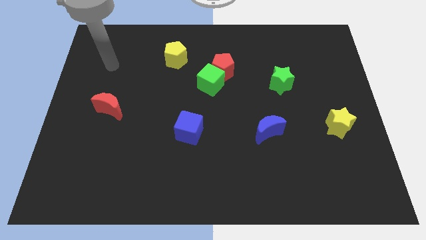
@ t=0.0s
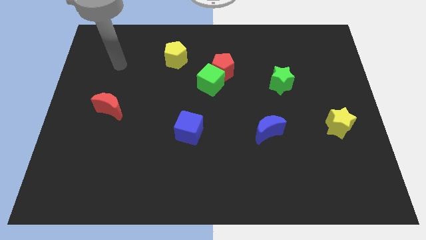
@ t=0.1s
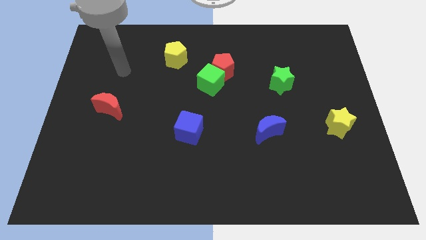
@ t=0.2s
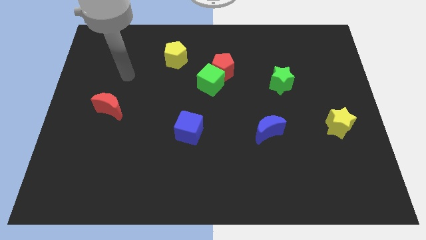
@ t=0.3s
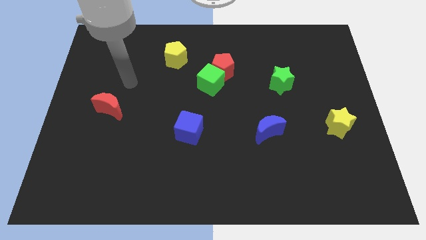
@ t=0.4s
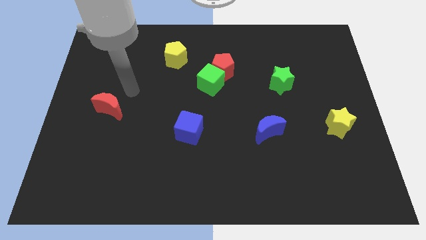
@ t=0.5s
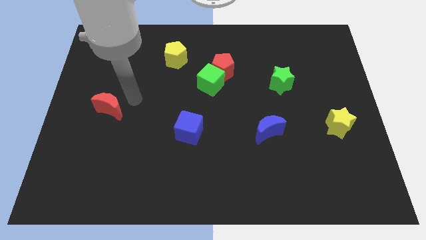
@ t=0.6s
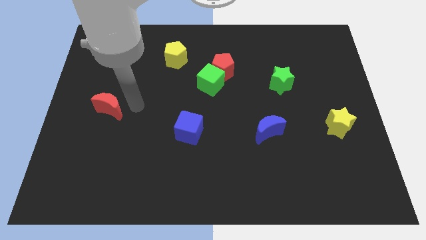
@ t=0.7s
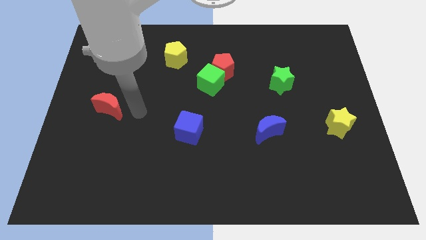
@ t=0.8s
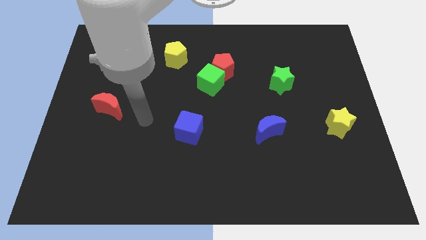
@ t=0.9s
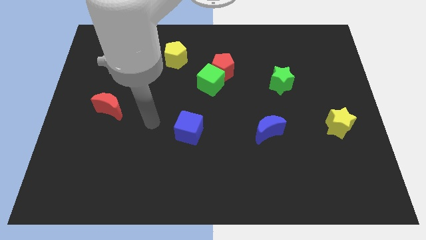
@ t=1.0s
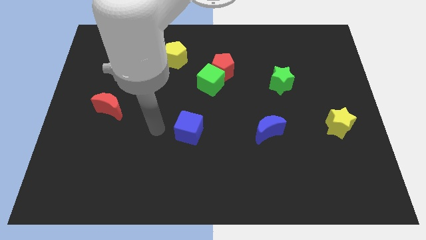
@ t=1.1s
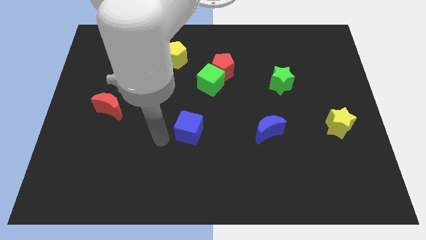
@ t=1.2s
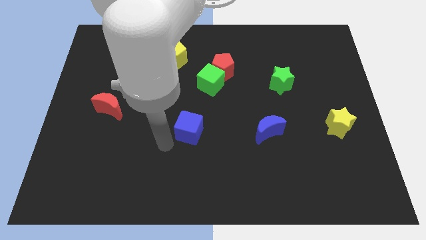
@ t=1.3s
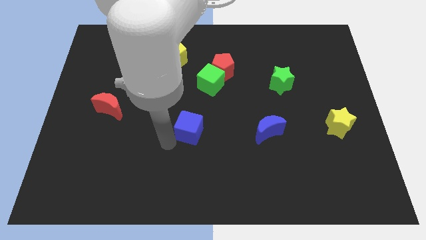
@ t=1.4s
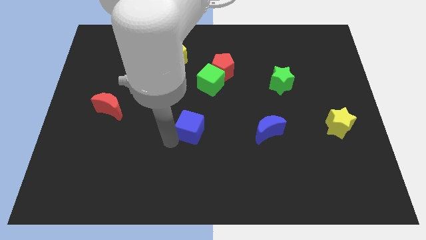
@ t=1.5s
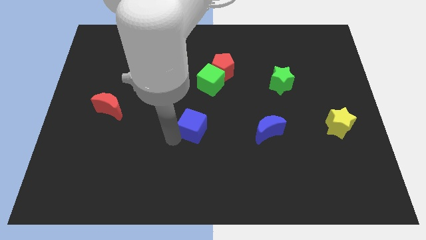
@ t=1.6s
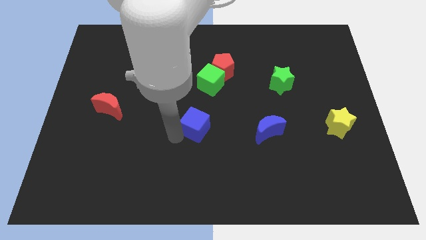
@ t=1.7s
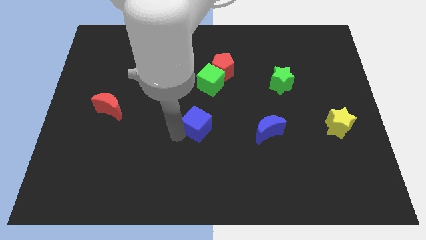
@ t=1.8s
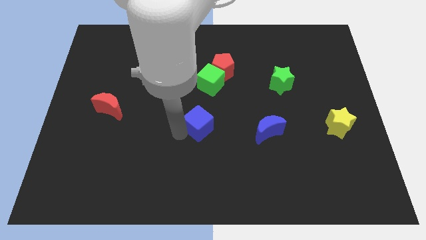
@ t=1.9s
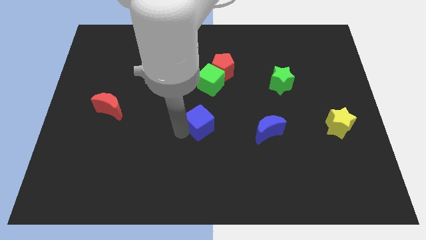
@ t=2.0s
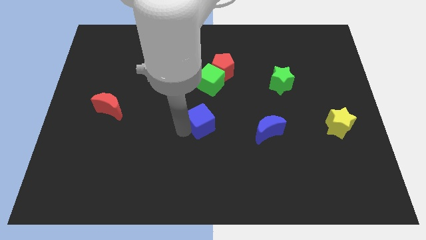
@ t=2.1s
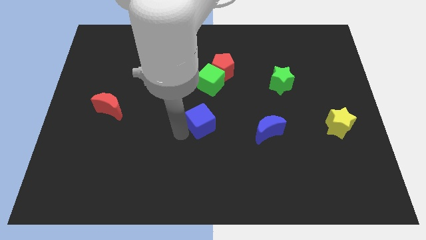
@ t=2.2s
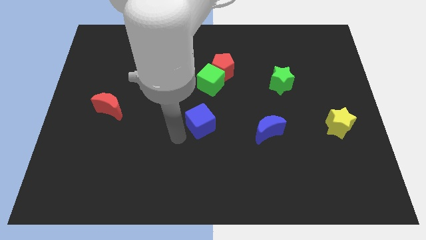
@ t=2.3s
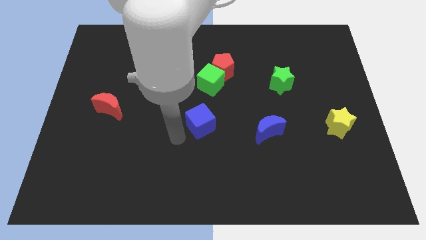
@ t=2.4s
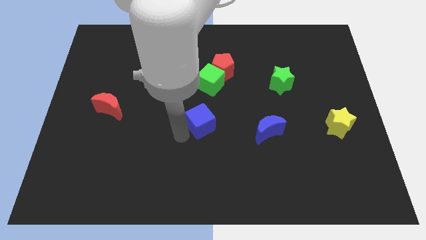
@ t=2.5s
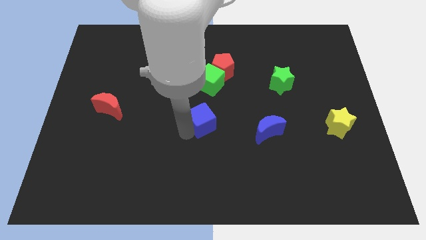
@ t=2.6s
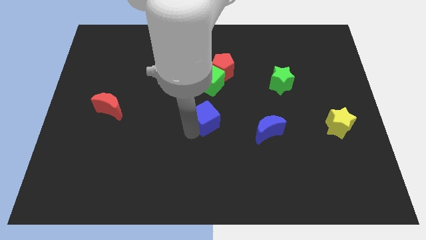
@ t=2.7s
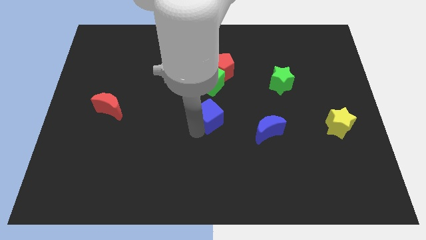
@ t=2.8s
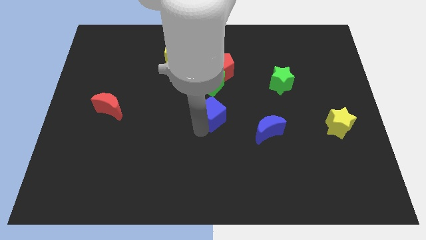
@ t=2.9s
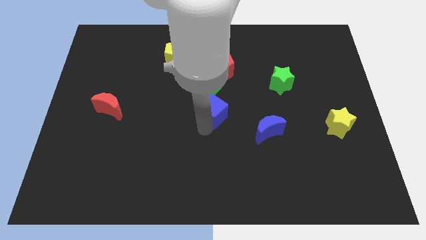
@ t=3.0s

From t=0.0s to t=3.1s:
push the blue cube a little up and to the right diagonally

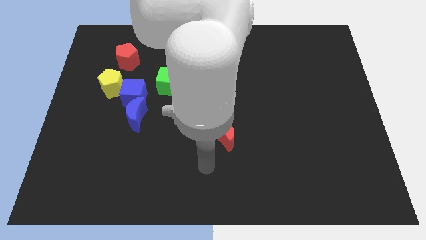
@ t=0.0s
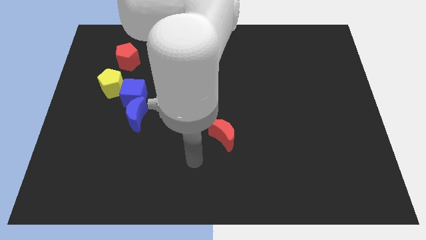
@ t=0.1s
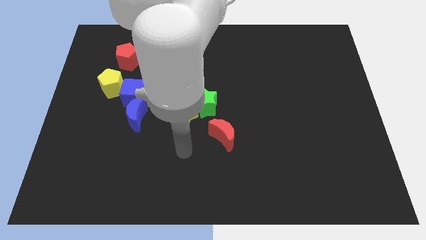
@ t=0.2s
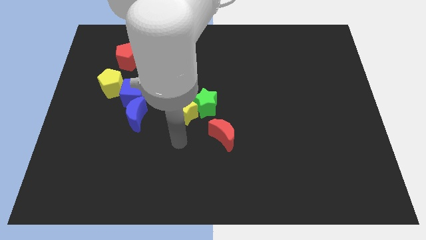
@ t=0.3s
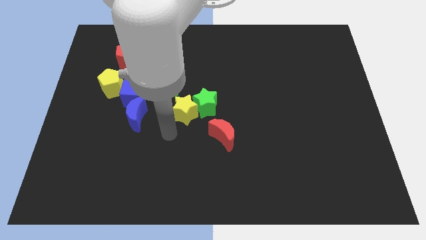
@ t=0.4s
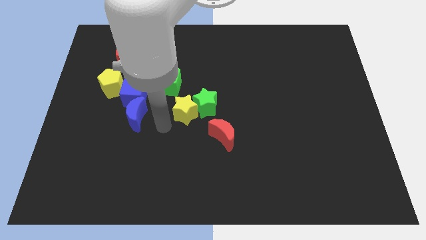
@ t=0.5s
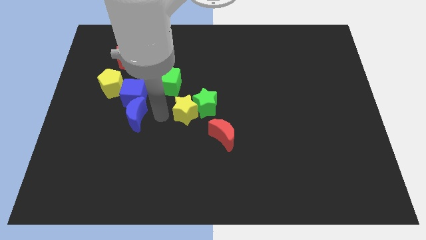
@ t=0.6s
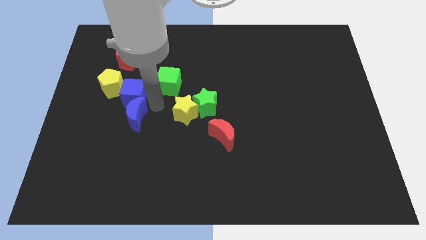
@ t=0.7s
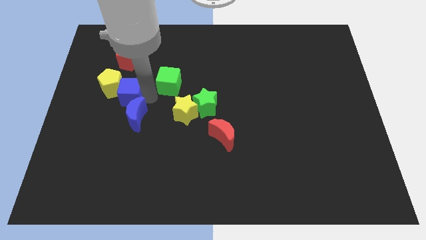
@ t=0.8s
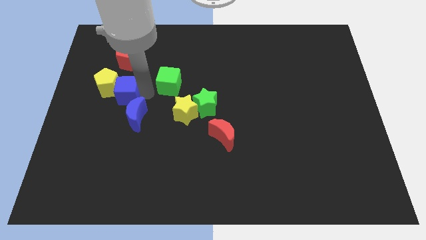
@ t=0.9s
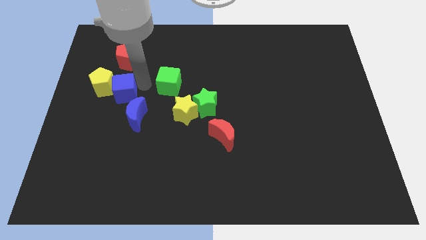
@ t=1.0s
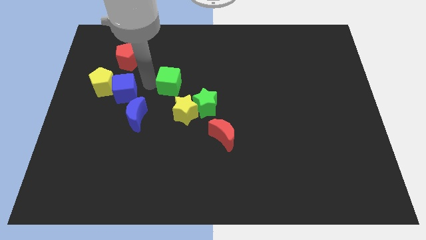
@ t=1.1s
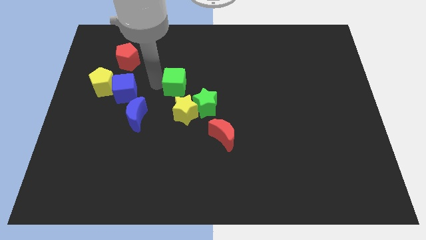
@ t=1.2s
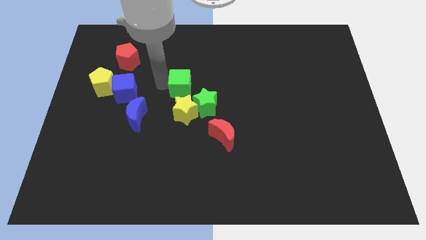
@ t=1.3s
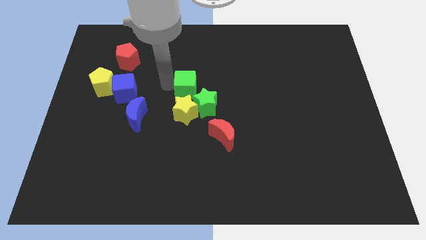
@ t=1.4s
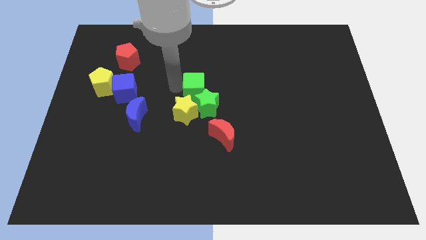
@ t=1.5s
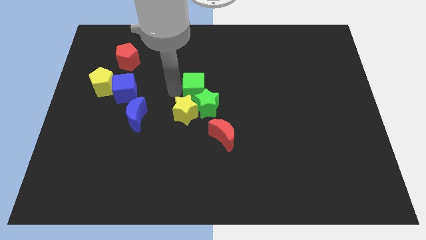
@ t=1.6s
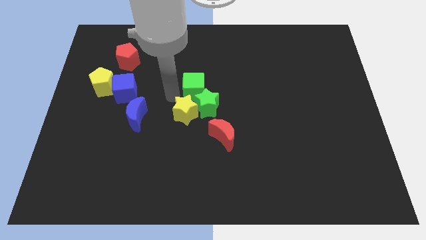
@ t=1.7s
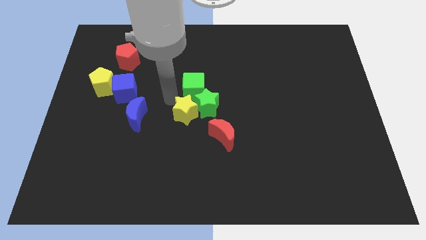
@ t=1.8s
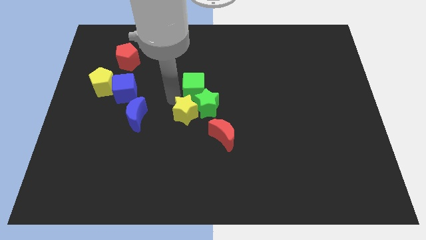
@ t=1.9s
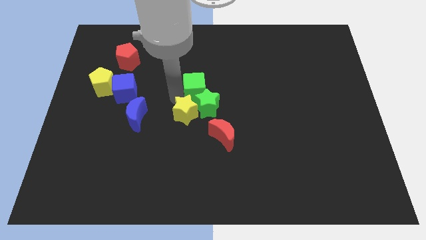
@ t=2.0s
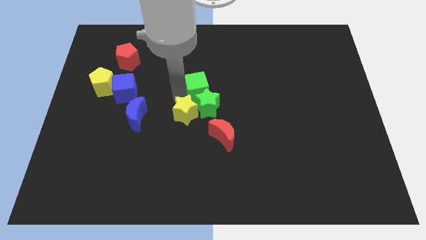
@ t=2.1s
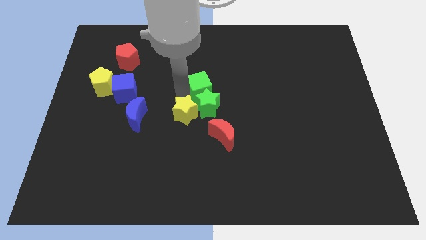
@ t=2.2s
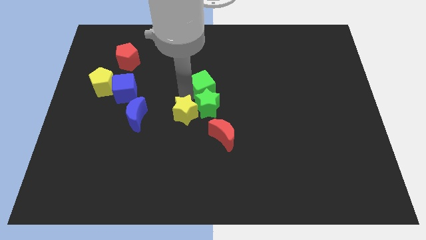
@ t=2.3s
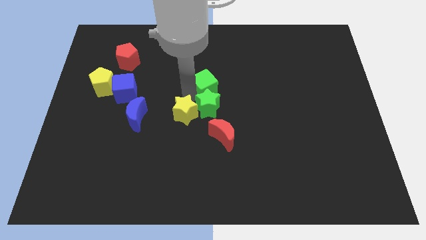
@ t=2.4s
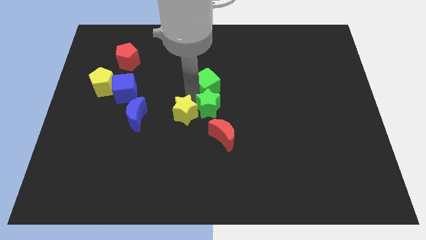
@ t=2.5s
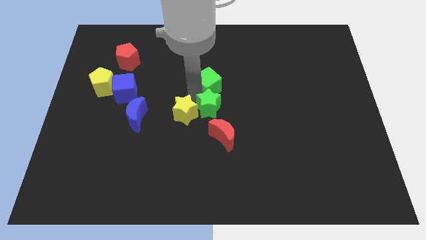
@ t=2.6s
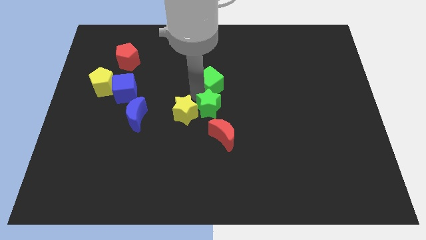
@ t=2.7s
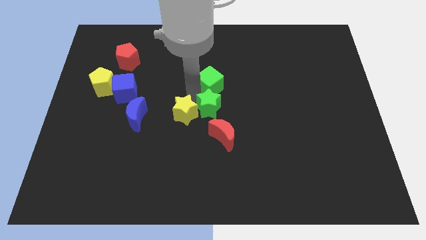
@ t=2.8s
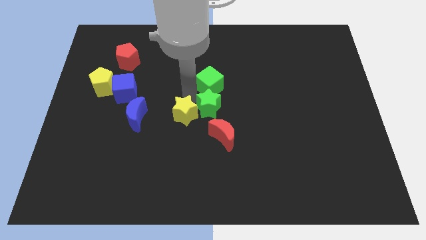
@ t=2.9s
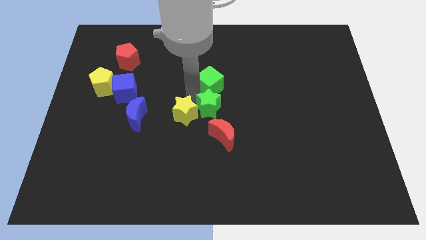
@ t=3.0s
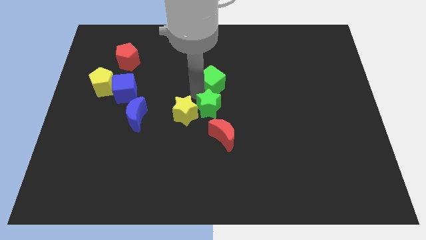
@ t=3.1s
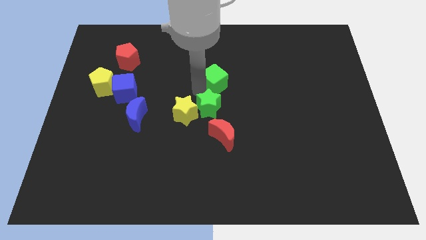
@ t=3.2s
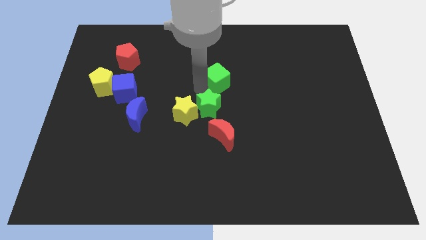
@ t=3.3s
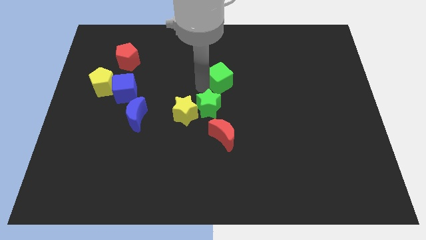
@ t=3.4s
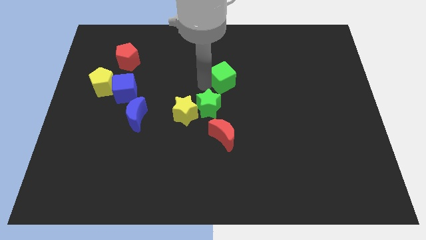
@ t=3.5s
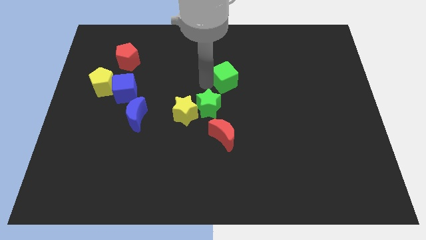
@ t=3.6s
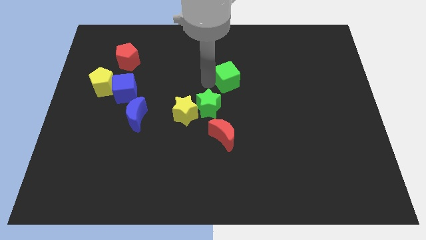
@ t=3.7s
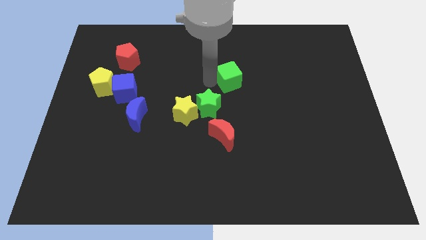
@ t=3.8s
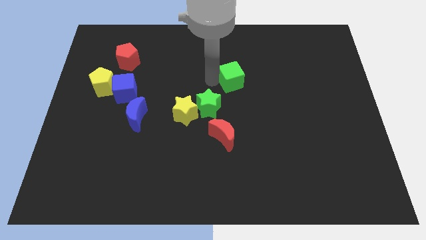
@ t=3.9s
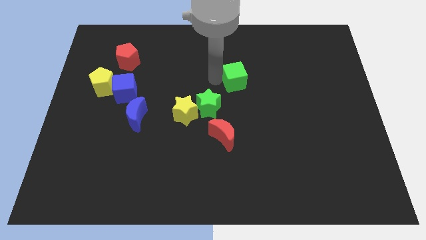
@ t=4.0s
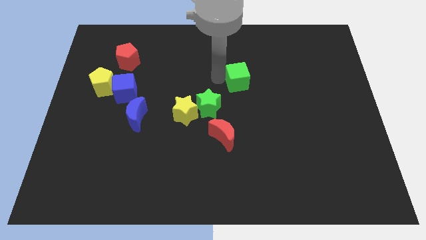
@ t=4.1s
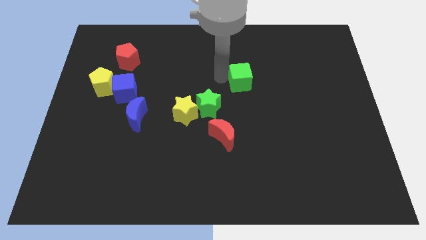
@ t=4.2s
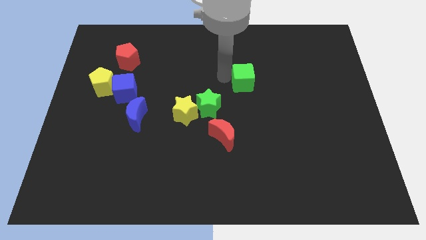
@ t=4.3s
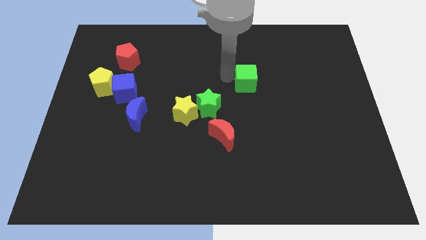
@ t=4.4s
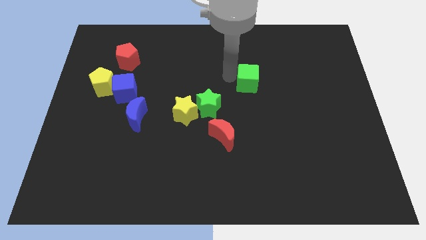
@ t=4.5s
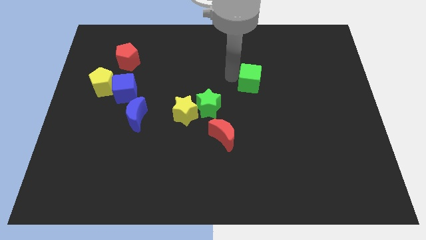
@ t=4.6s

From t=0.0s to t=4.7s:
push the green cube right

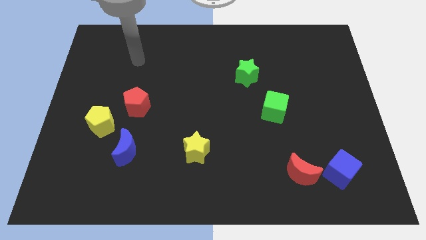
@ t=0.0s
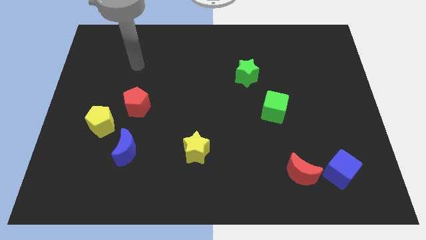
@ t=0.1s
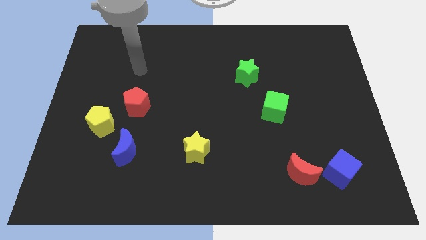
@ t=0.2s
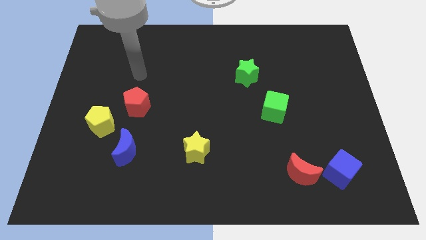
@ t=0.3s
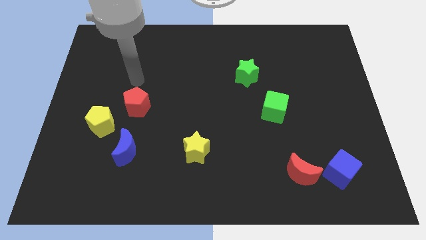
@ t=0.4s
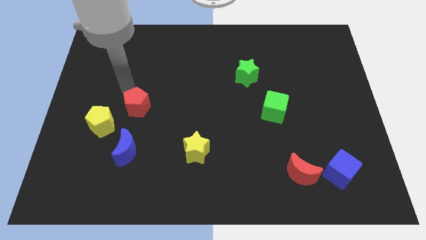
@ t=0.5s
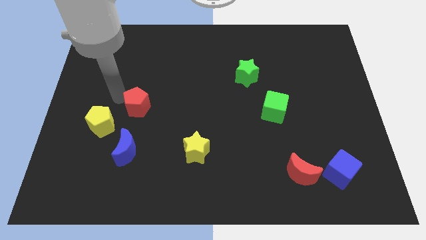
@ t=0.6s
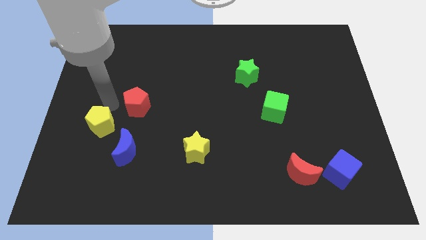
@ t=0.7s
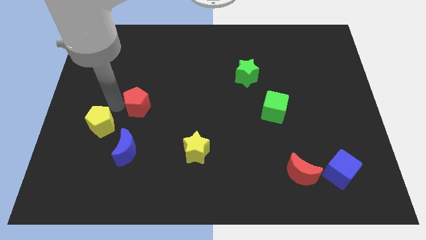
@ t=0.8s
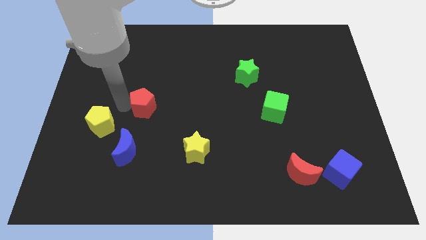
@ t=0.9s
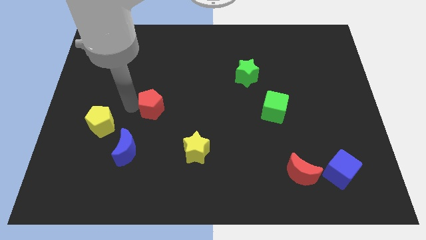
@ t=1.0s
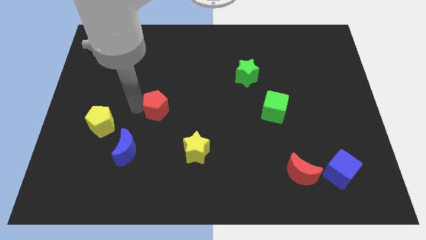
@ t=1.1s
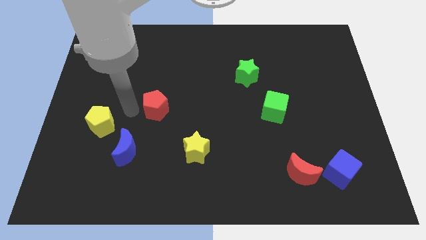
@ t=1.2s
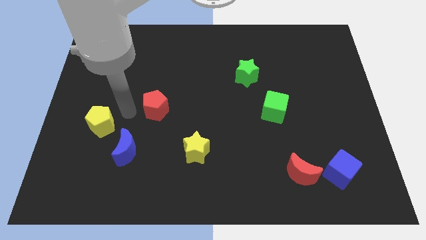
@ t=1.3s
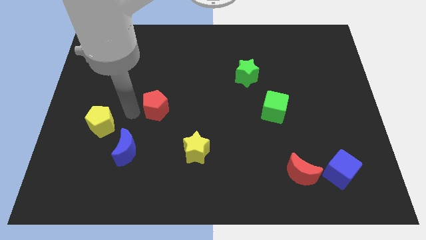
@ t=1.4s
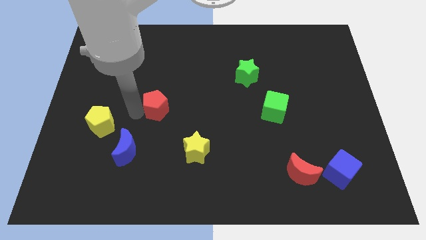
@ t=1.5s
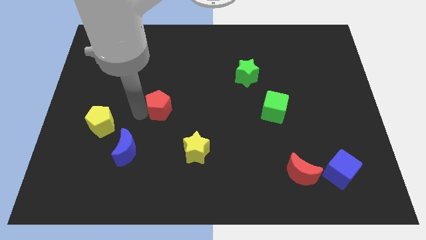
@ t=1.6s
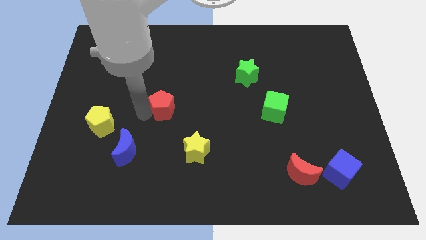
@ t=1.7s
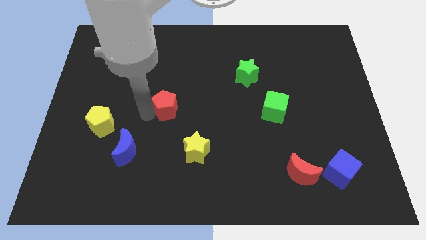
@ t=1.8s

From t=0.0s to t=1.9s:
slightly slide the red pentagon right
